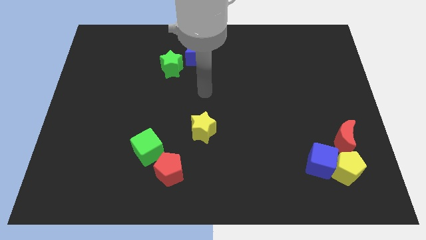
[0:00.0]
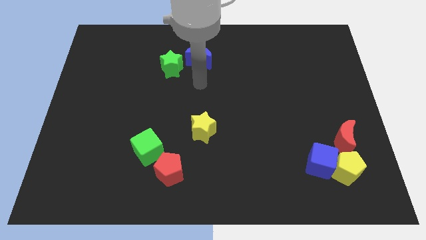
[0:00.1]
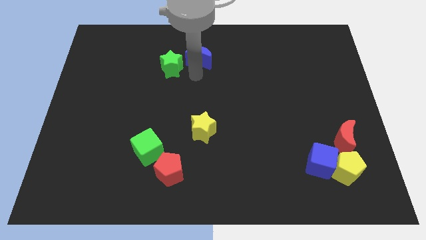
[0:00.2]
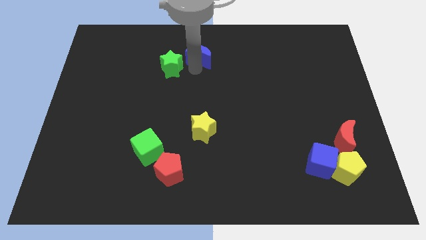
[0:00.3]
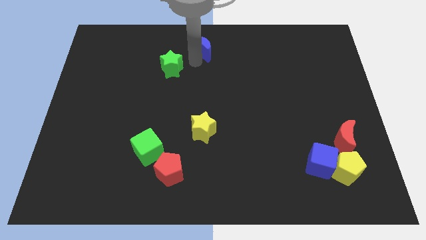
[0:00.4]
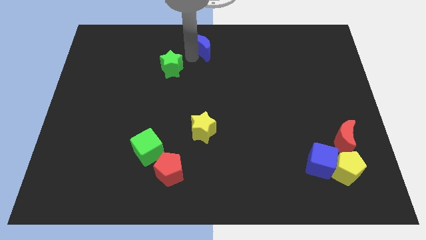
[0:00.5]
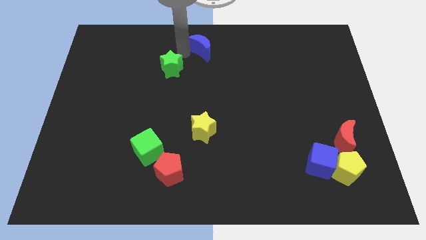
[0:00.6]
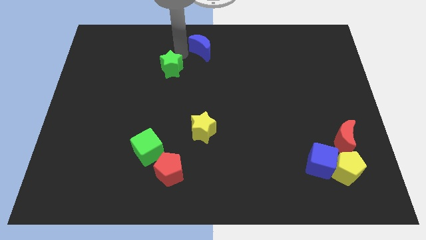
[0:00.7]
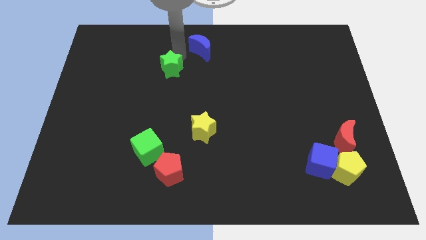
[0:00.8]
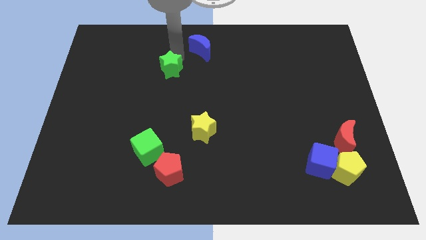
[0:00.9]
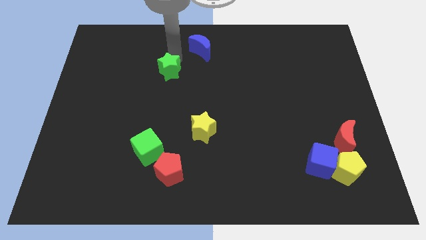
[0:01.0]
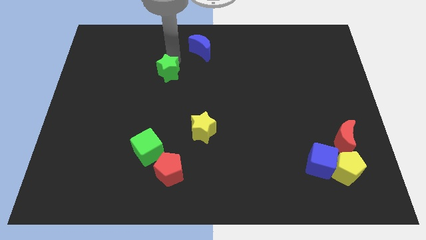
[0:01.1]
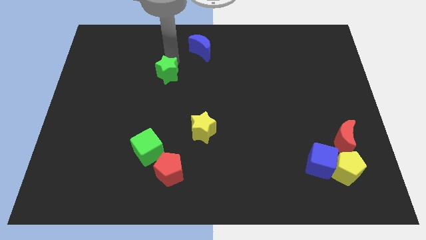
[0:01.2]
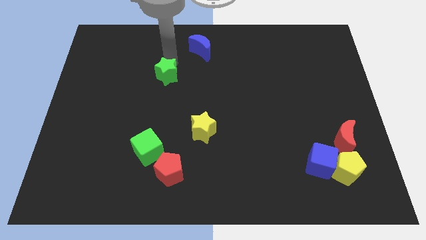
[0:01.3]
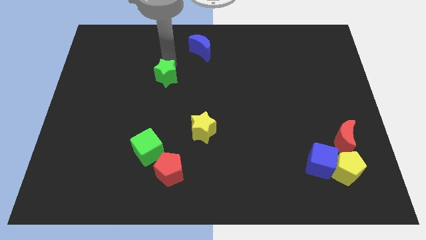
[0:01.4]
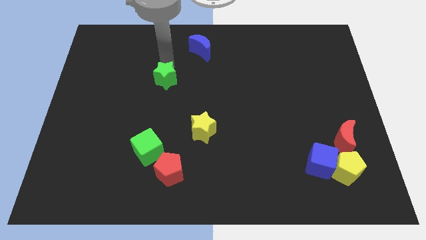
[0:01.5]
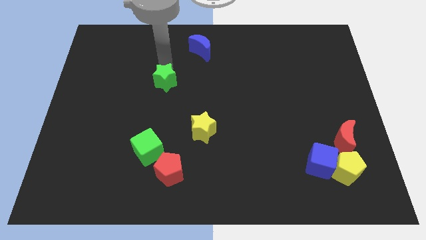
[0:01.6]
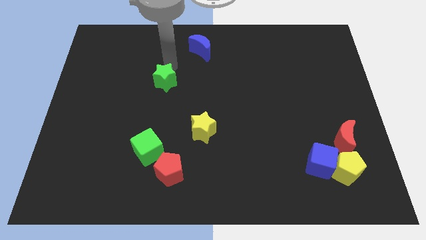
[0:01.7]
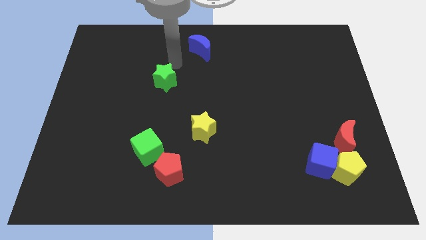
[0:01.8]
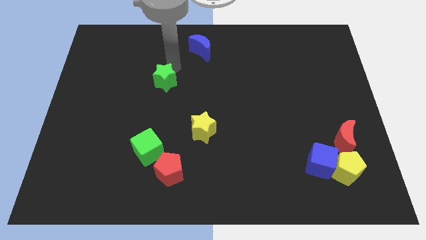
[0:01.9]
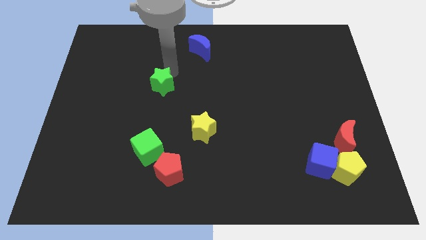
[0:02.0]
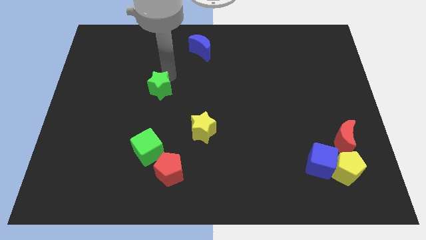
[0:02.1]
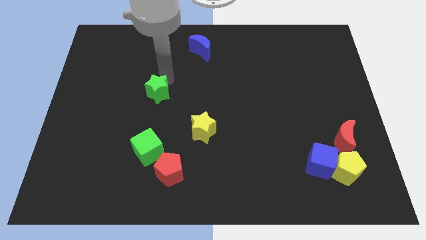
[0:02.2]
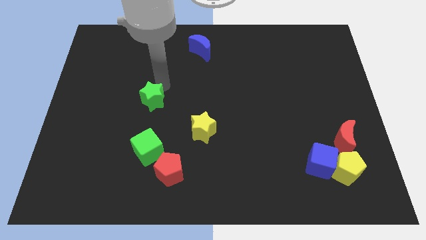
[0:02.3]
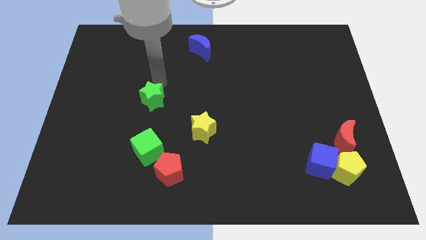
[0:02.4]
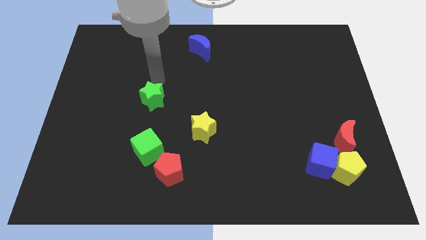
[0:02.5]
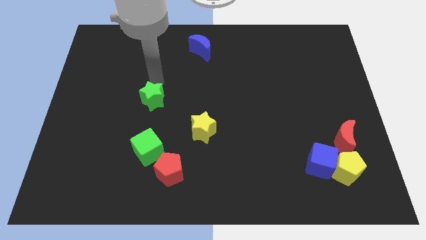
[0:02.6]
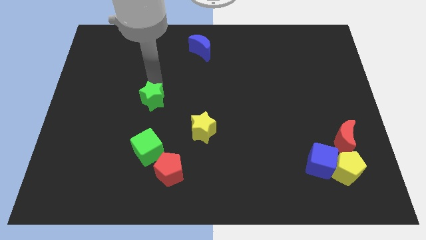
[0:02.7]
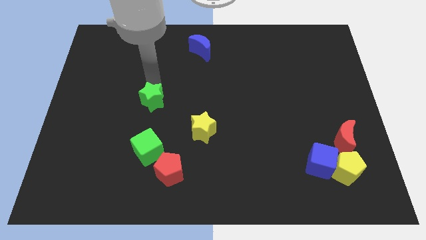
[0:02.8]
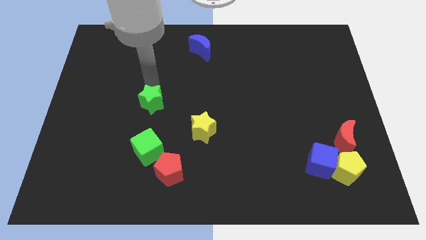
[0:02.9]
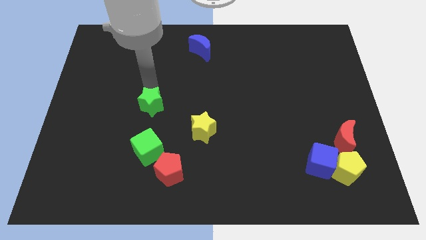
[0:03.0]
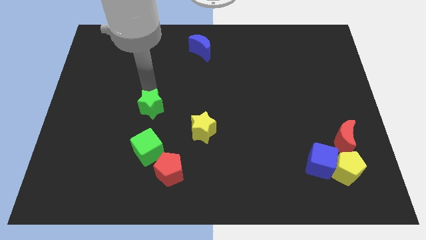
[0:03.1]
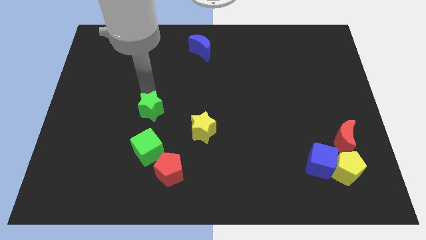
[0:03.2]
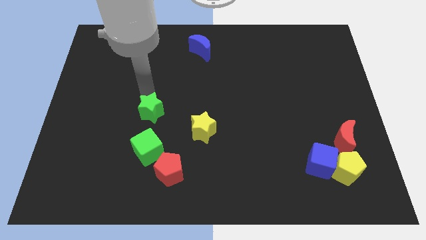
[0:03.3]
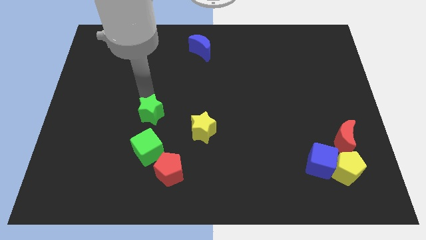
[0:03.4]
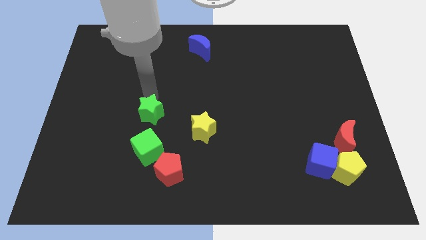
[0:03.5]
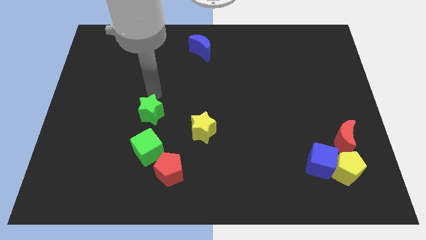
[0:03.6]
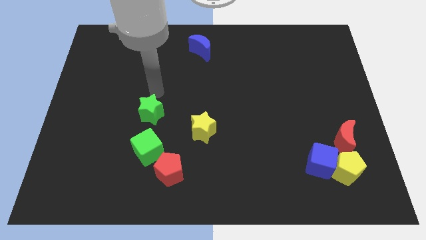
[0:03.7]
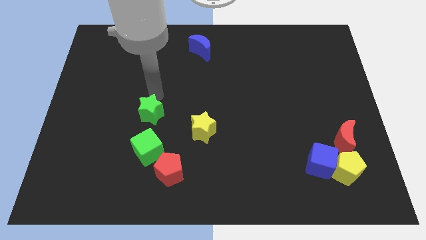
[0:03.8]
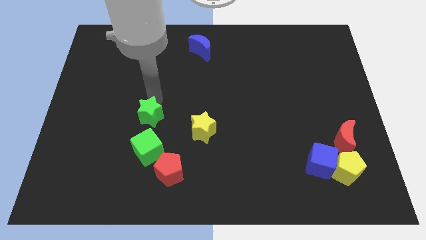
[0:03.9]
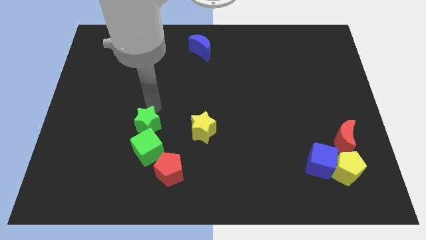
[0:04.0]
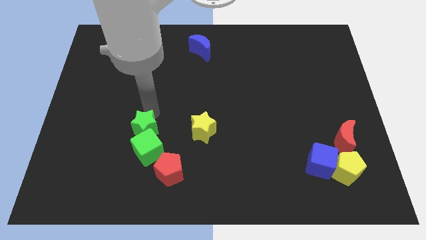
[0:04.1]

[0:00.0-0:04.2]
put the green star close to the green cube

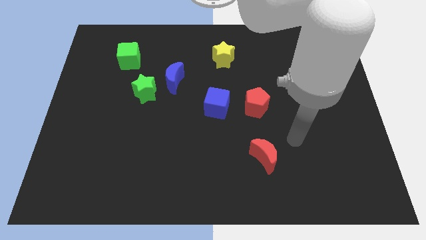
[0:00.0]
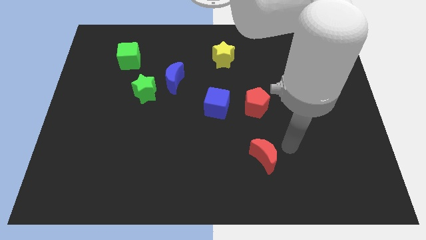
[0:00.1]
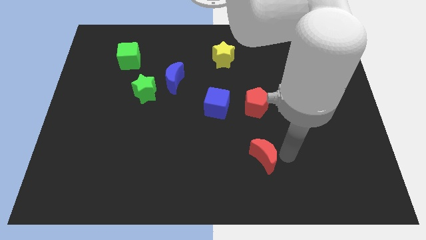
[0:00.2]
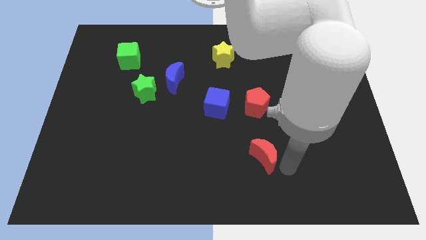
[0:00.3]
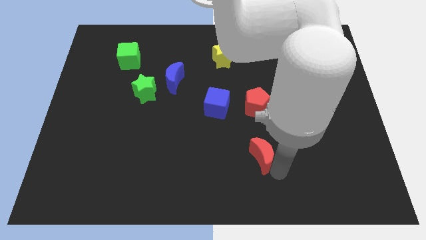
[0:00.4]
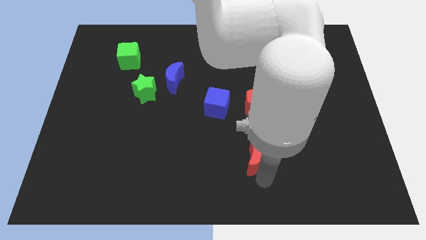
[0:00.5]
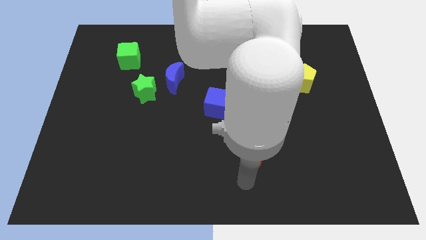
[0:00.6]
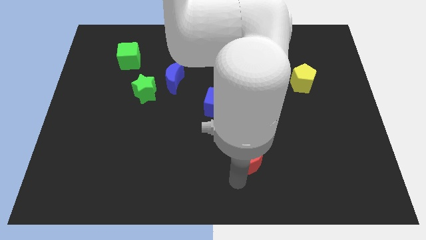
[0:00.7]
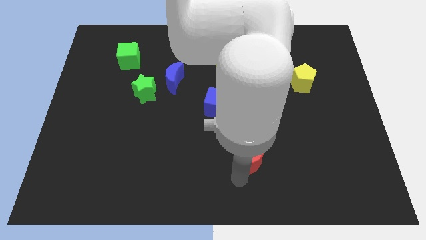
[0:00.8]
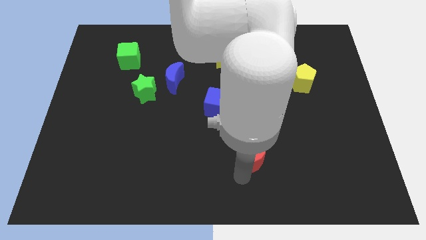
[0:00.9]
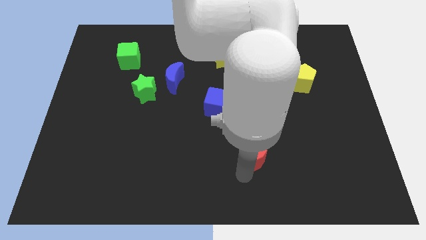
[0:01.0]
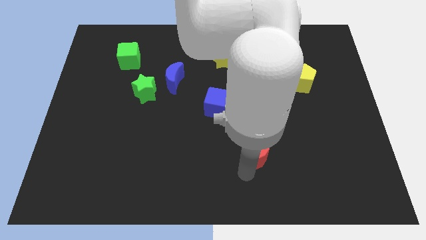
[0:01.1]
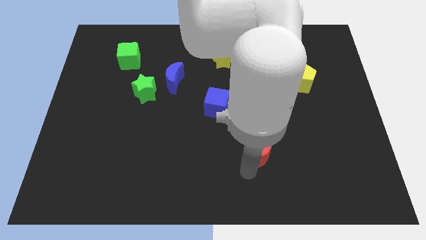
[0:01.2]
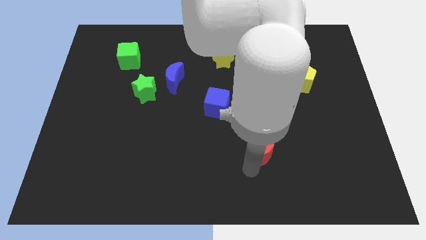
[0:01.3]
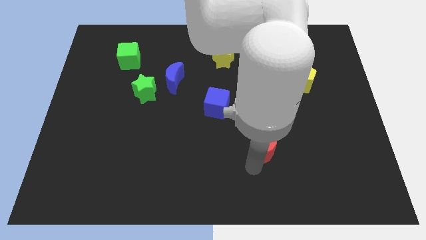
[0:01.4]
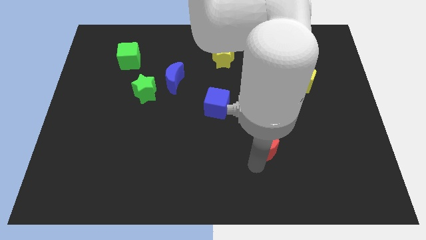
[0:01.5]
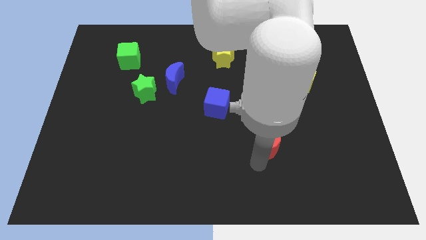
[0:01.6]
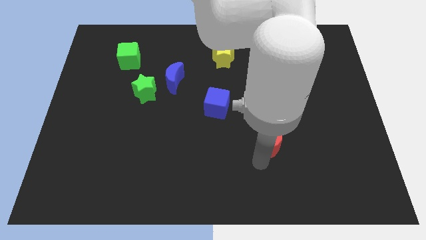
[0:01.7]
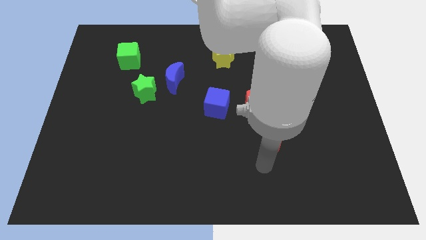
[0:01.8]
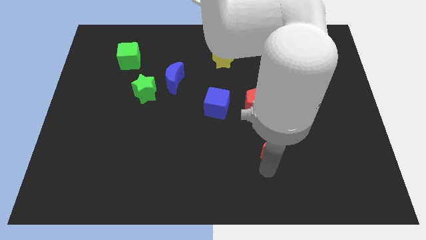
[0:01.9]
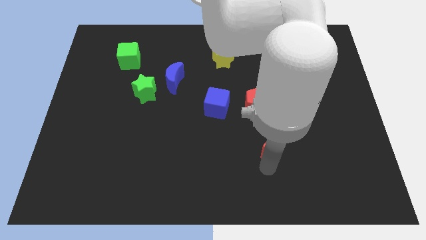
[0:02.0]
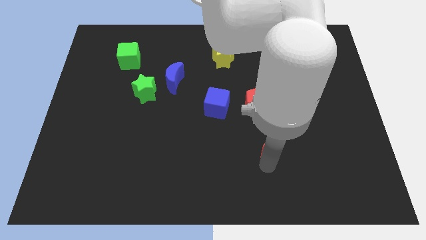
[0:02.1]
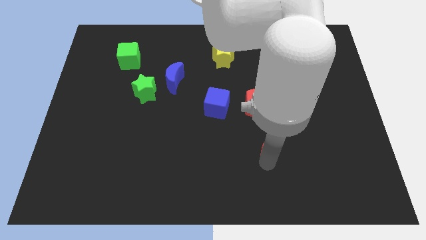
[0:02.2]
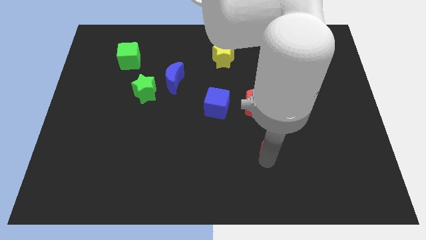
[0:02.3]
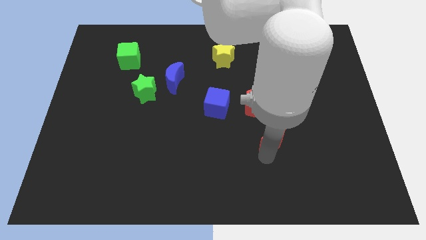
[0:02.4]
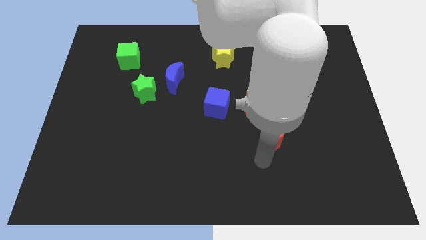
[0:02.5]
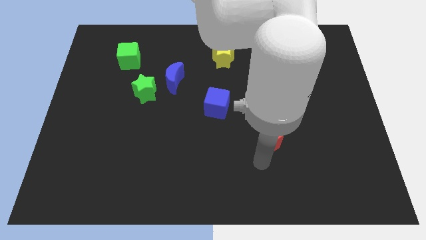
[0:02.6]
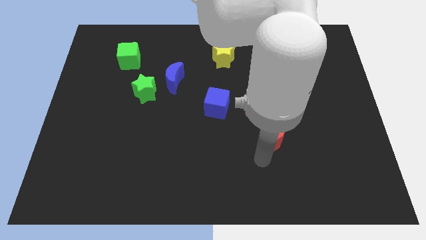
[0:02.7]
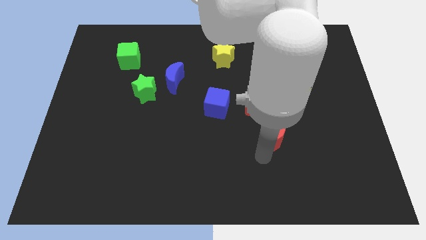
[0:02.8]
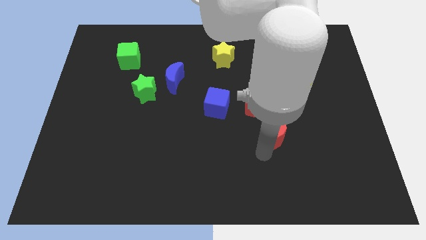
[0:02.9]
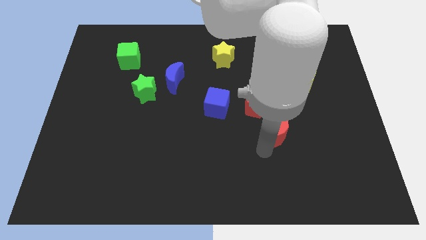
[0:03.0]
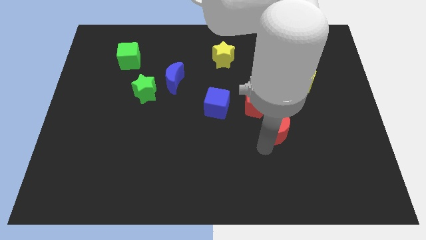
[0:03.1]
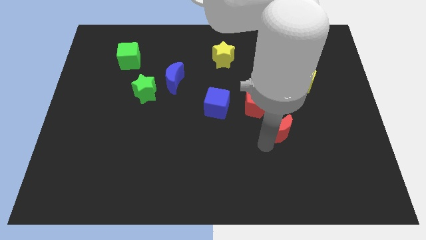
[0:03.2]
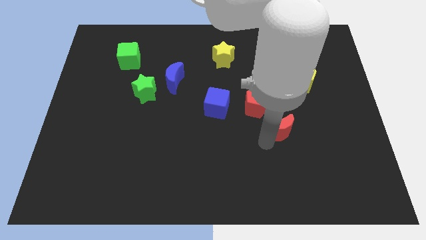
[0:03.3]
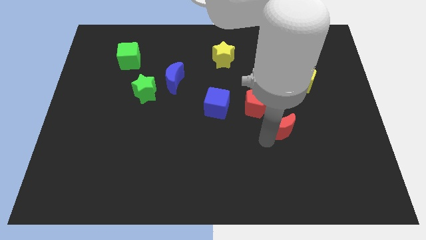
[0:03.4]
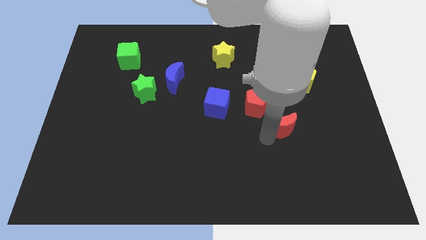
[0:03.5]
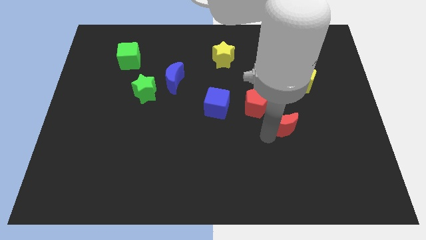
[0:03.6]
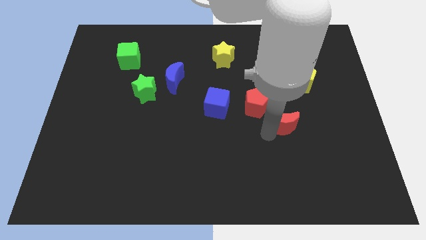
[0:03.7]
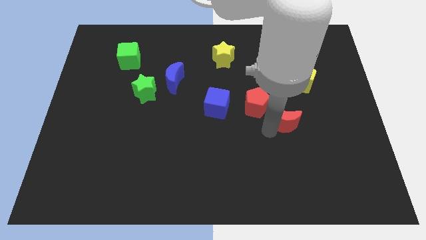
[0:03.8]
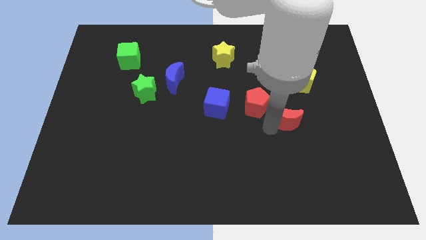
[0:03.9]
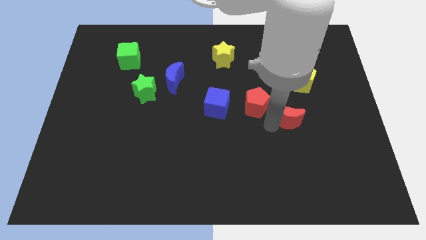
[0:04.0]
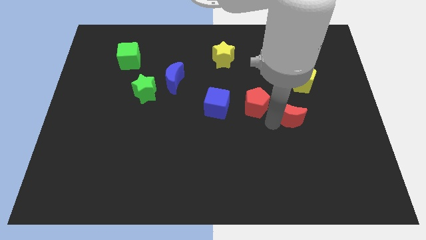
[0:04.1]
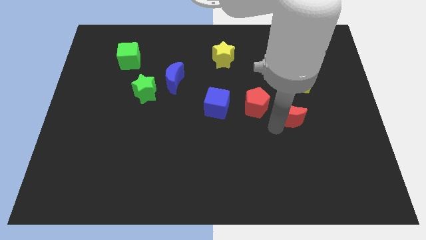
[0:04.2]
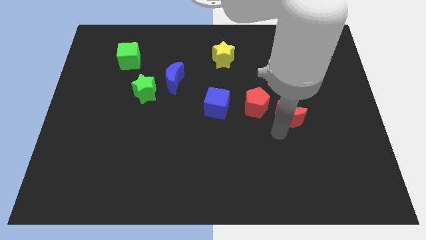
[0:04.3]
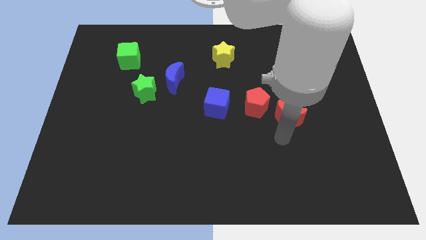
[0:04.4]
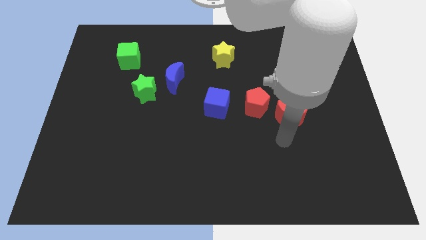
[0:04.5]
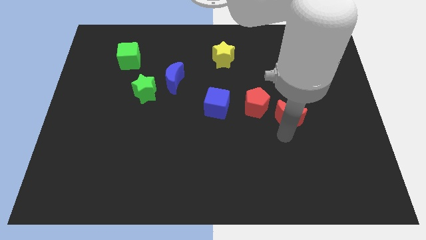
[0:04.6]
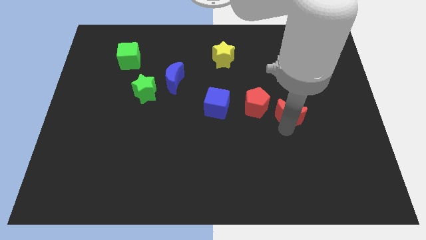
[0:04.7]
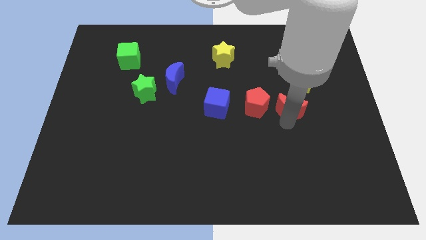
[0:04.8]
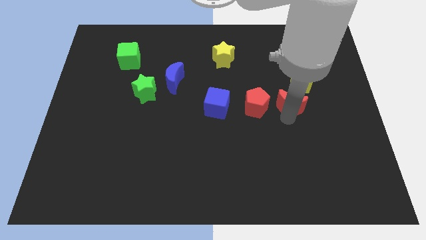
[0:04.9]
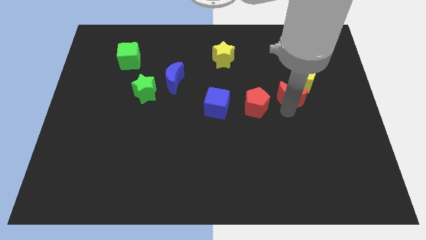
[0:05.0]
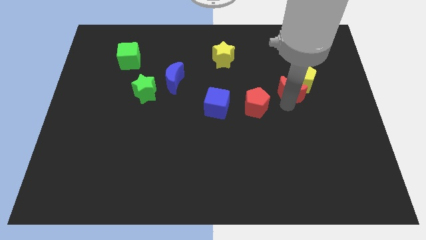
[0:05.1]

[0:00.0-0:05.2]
push the red moon towards the yellow pentagon
